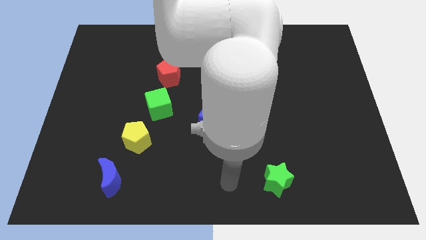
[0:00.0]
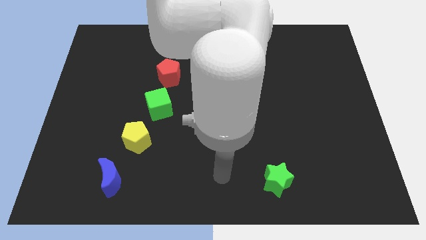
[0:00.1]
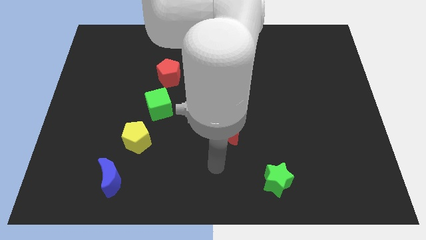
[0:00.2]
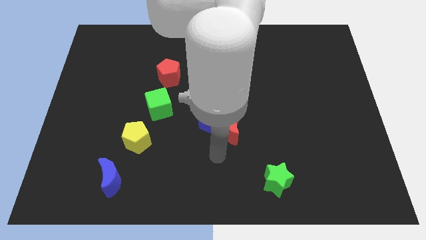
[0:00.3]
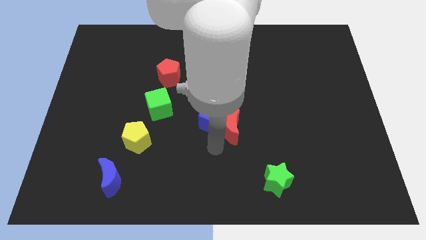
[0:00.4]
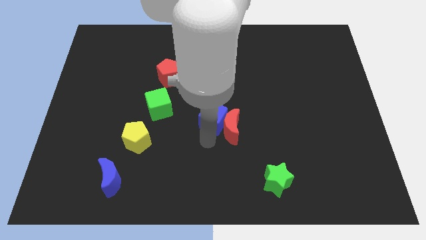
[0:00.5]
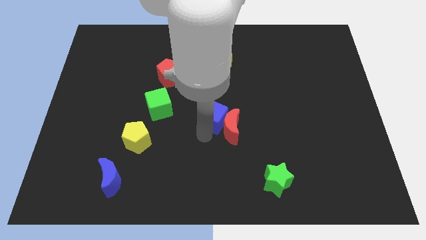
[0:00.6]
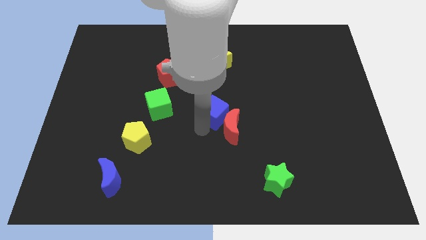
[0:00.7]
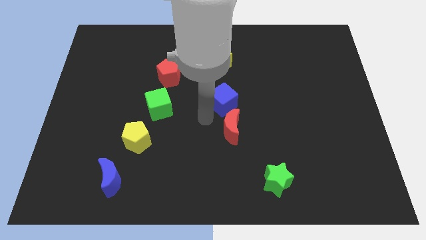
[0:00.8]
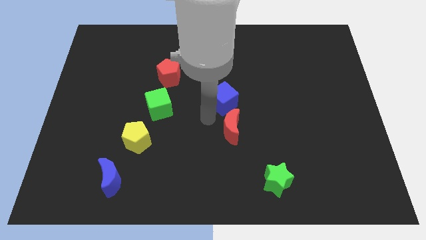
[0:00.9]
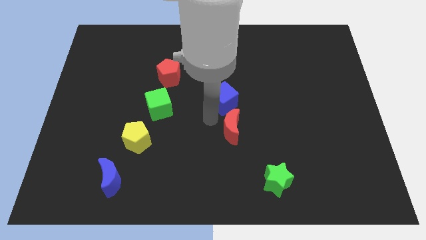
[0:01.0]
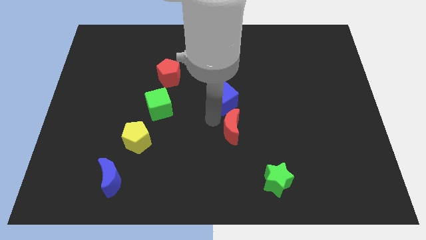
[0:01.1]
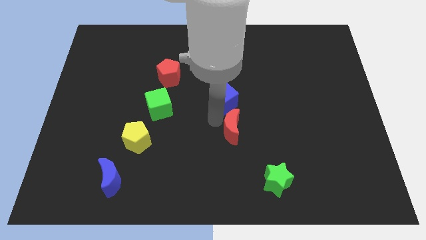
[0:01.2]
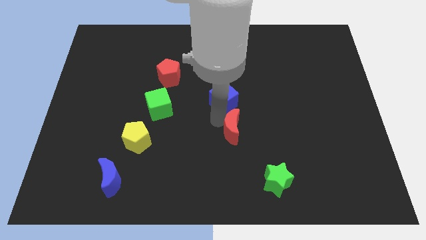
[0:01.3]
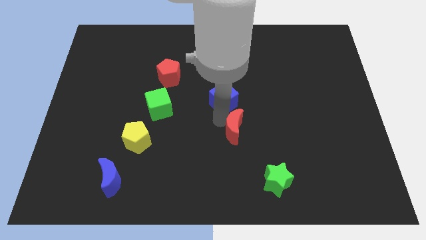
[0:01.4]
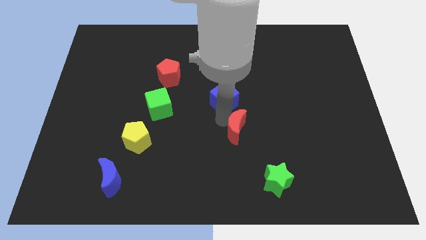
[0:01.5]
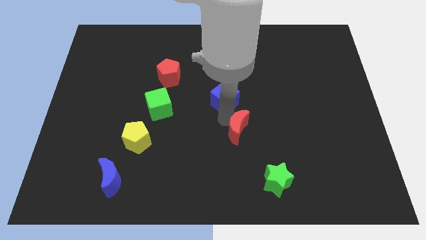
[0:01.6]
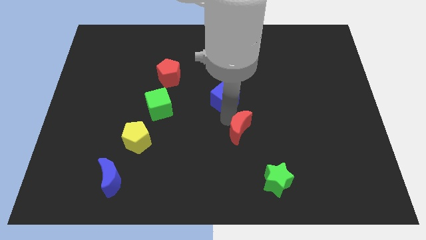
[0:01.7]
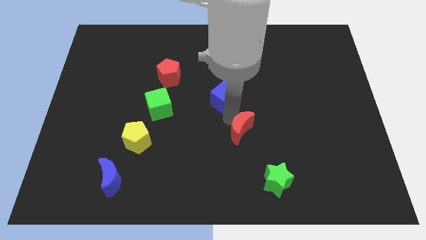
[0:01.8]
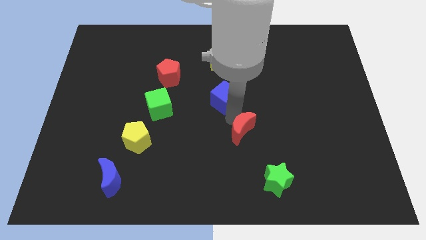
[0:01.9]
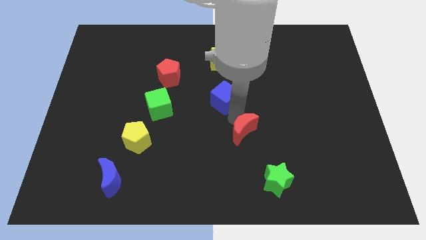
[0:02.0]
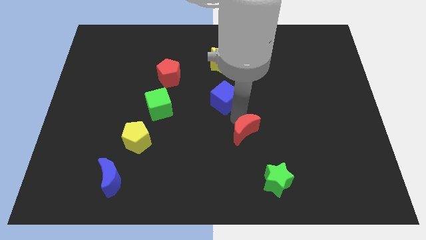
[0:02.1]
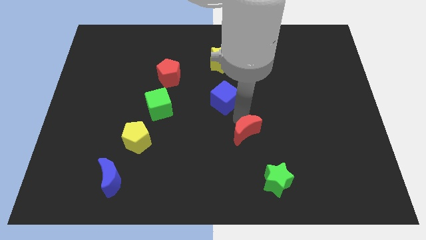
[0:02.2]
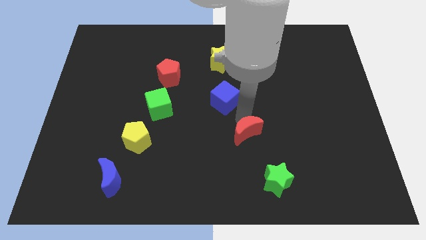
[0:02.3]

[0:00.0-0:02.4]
separate the red moon from the blue cube

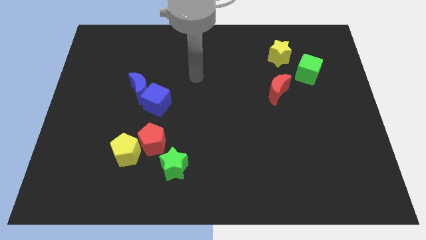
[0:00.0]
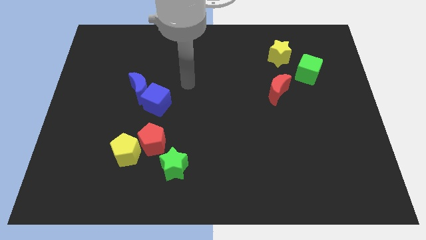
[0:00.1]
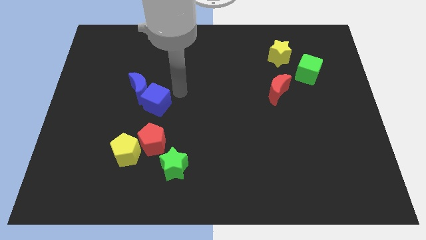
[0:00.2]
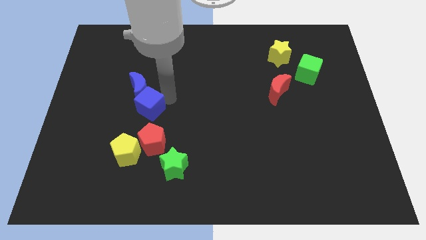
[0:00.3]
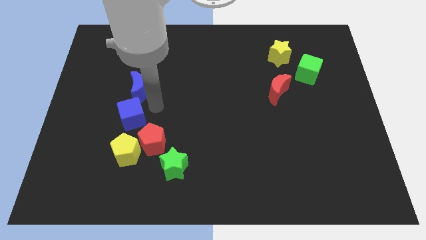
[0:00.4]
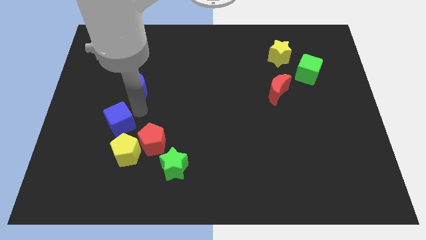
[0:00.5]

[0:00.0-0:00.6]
separate the blue moon from the blue cube

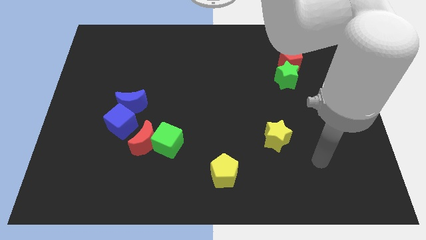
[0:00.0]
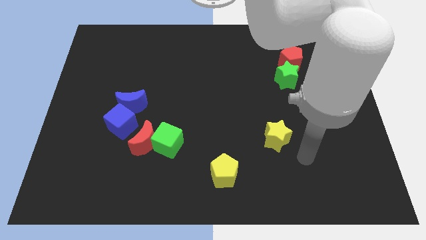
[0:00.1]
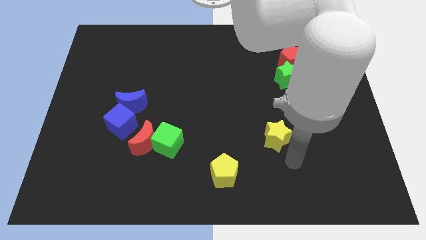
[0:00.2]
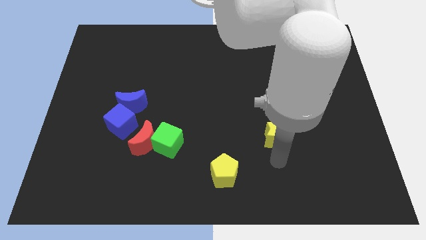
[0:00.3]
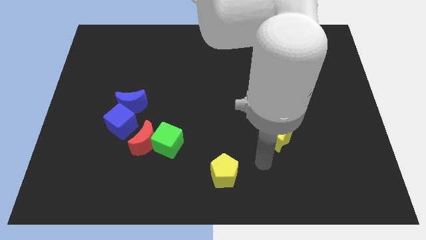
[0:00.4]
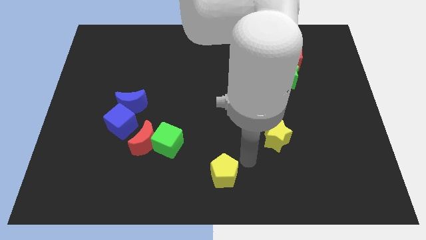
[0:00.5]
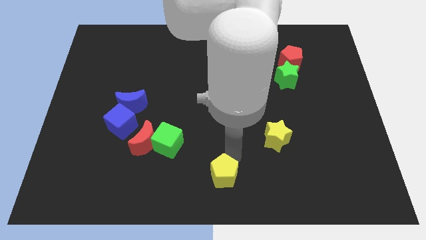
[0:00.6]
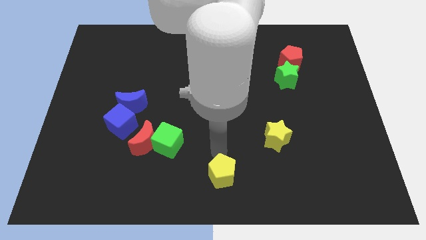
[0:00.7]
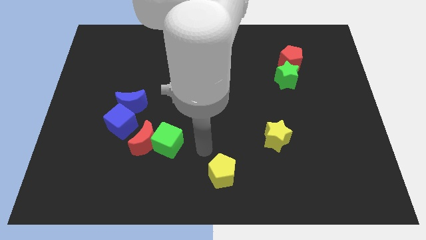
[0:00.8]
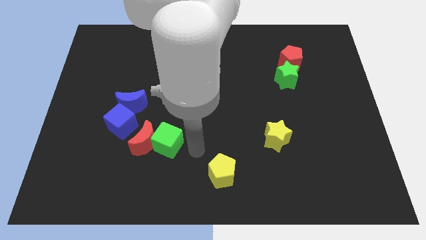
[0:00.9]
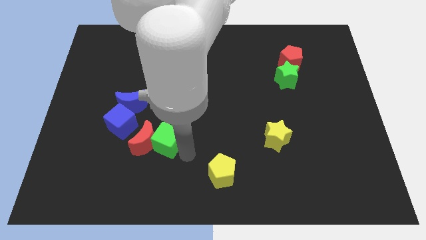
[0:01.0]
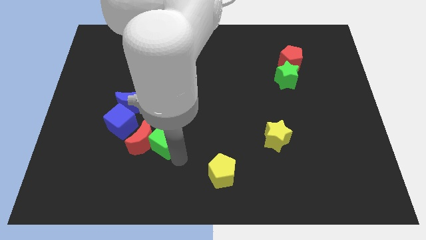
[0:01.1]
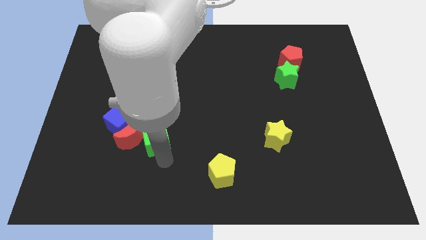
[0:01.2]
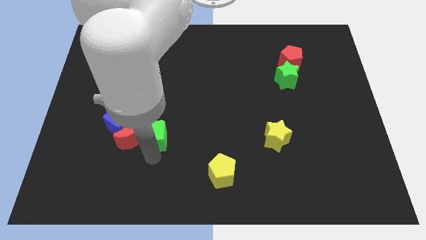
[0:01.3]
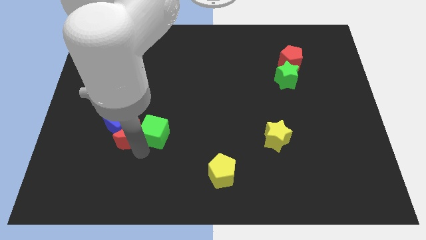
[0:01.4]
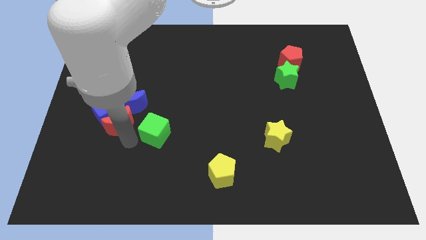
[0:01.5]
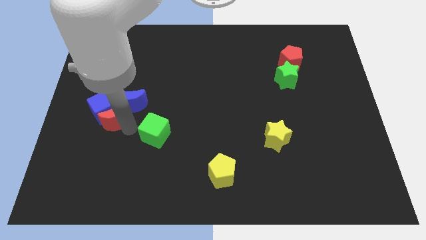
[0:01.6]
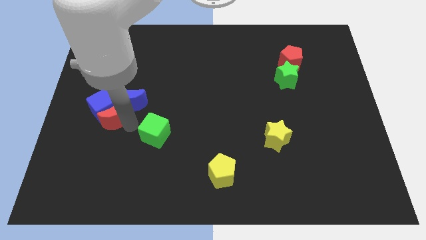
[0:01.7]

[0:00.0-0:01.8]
pull the green cube apart from the red moon

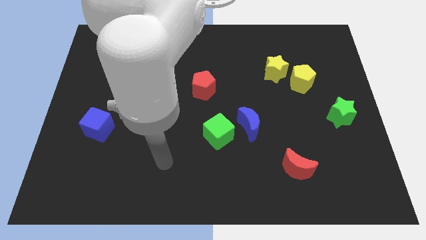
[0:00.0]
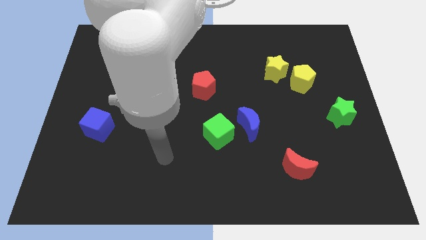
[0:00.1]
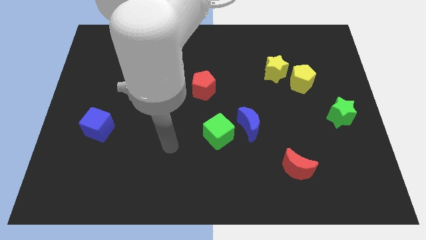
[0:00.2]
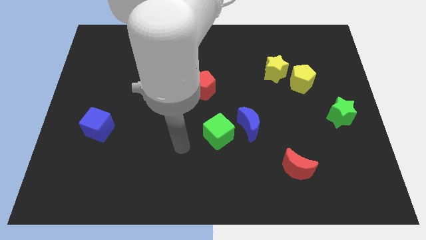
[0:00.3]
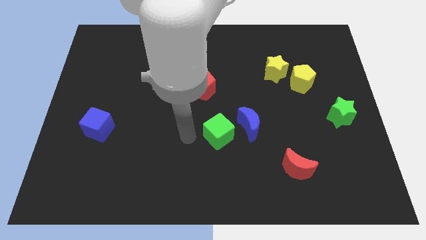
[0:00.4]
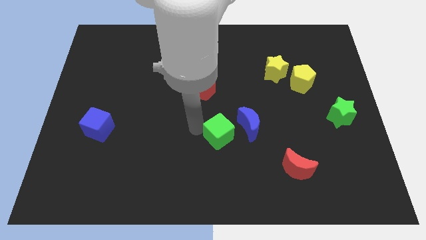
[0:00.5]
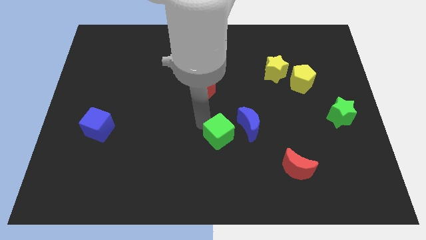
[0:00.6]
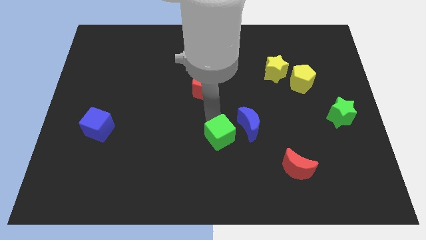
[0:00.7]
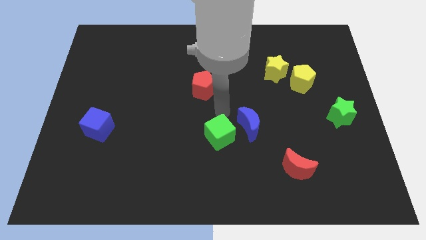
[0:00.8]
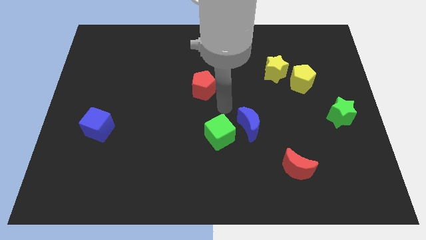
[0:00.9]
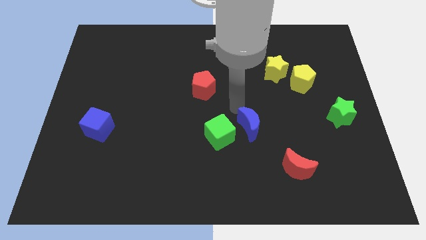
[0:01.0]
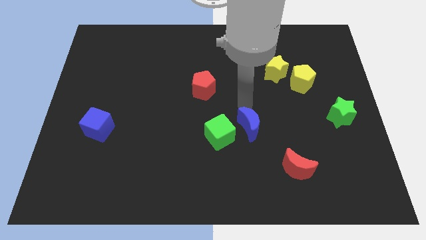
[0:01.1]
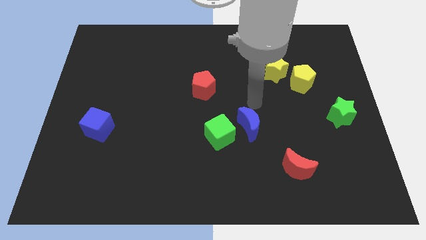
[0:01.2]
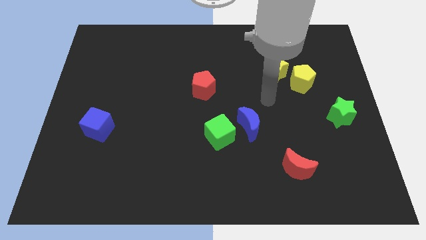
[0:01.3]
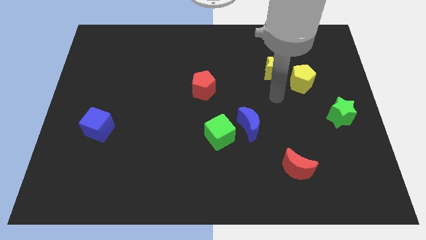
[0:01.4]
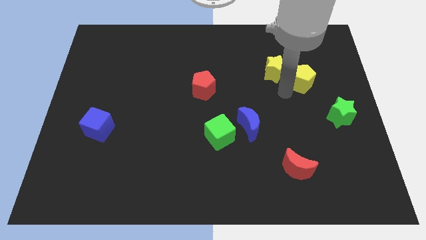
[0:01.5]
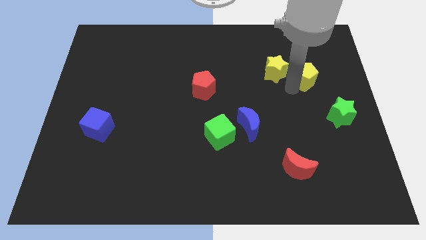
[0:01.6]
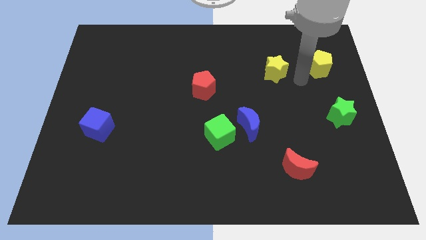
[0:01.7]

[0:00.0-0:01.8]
separate the yellow star from the yellow pentagon

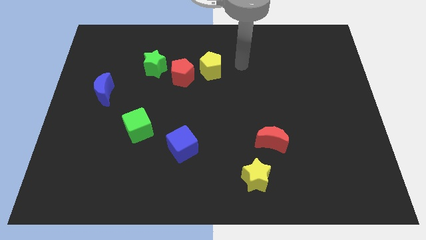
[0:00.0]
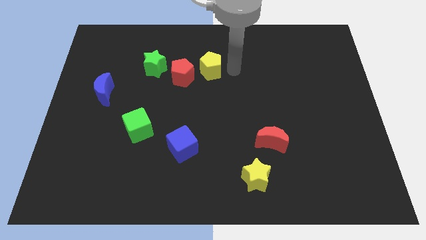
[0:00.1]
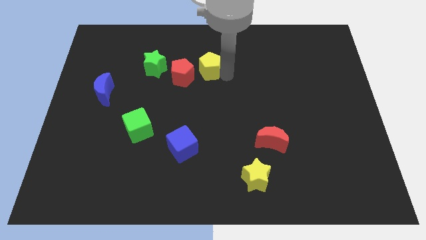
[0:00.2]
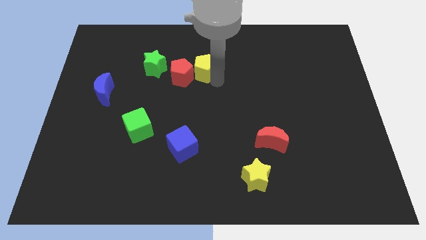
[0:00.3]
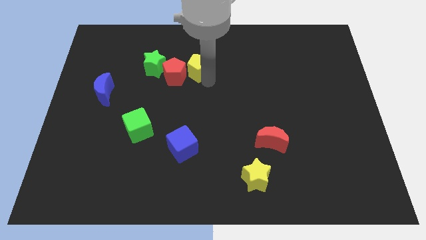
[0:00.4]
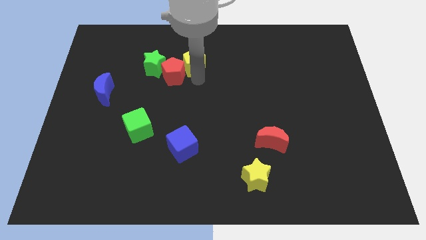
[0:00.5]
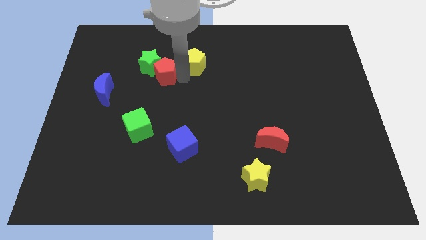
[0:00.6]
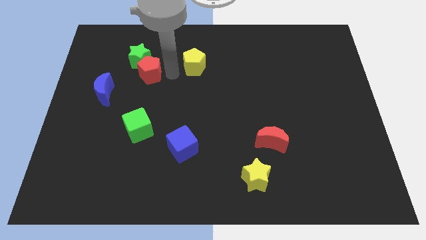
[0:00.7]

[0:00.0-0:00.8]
move the yellow pentagon away from the red pentagon

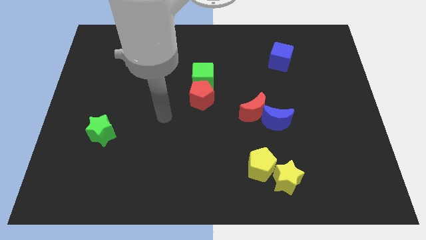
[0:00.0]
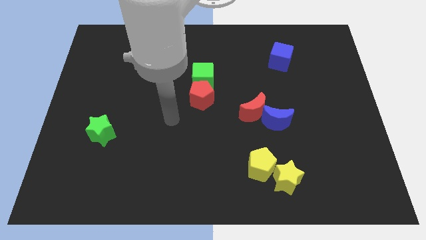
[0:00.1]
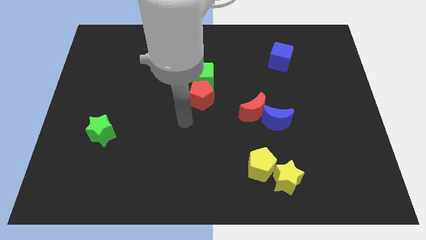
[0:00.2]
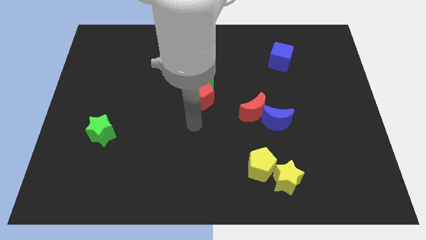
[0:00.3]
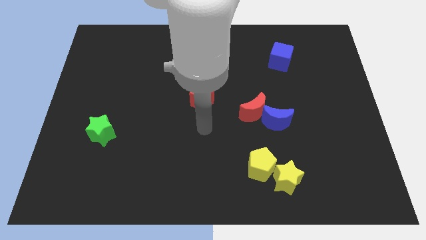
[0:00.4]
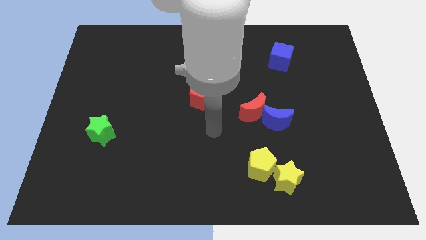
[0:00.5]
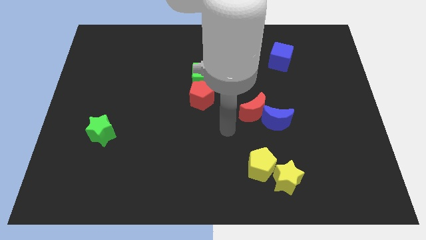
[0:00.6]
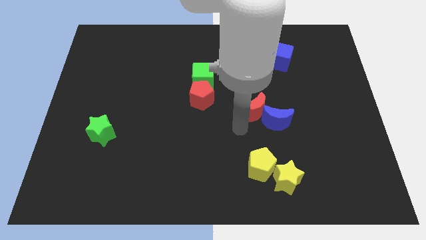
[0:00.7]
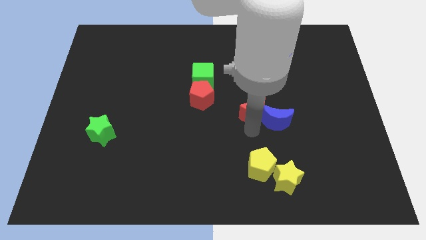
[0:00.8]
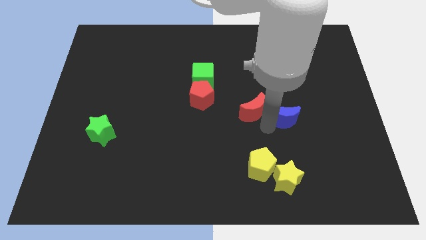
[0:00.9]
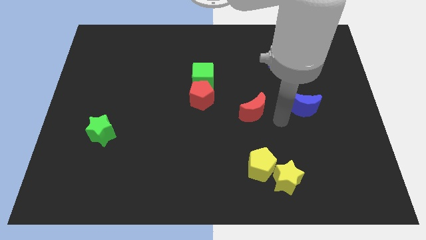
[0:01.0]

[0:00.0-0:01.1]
separate the red moon from the blue moon

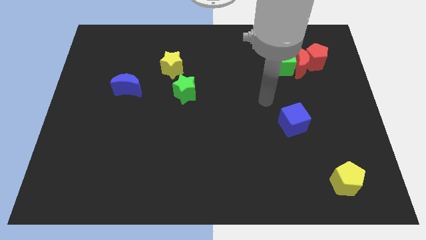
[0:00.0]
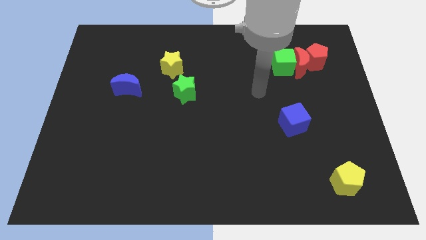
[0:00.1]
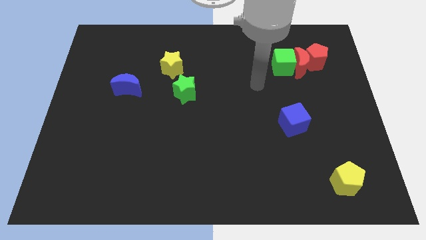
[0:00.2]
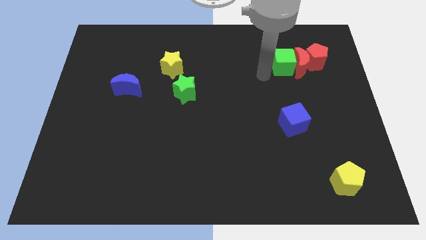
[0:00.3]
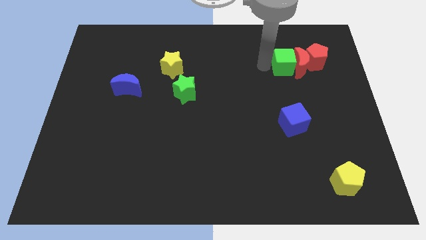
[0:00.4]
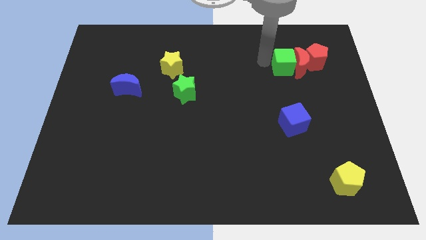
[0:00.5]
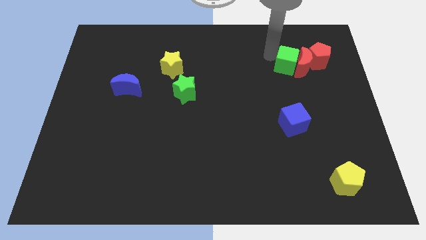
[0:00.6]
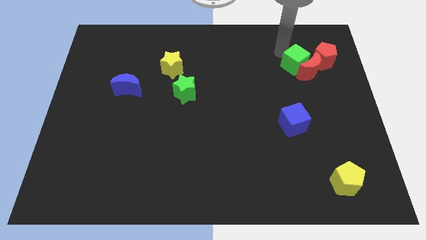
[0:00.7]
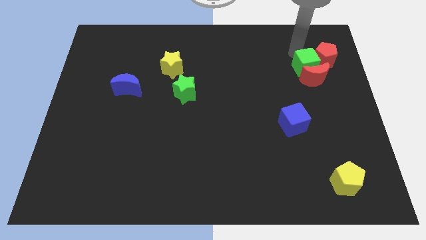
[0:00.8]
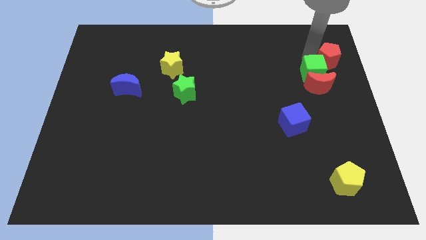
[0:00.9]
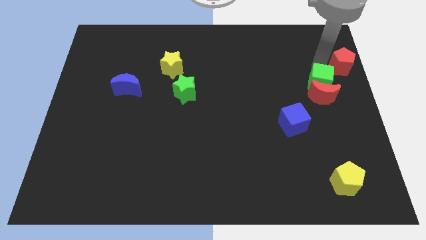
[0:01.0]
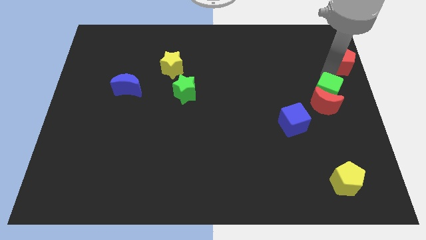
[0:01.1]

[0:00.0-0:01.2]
separate the red moon from the red pentagon and green cube
